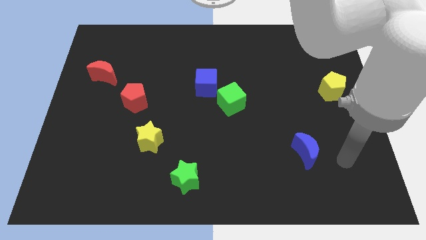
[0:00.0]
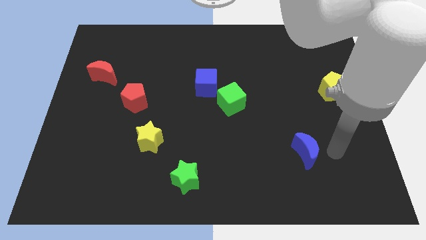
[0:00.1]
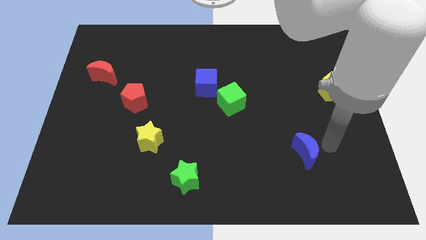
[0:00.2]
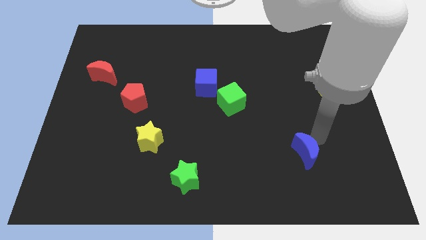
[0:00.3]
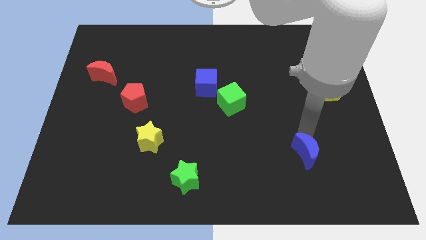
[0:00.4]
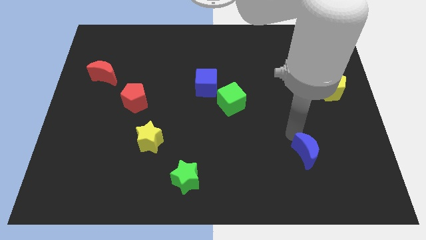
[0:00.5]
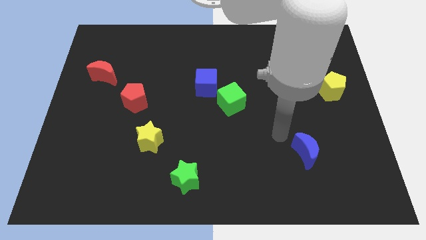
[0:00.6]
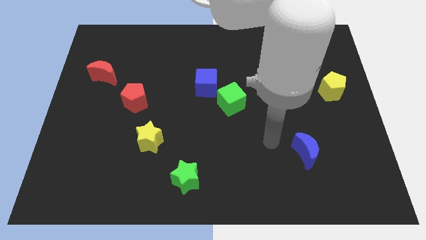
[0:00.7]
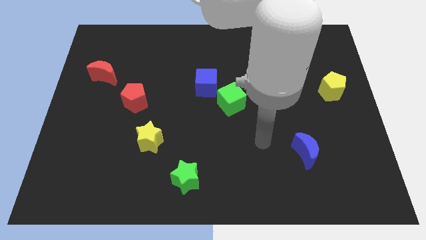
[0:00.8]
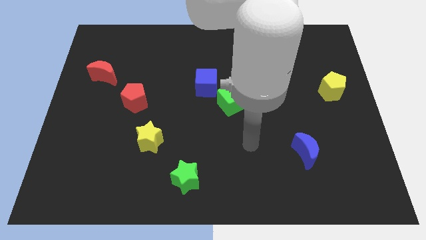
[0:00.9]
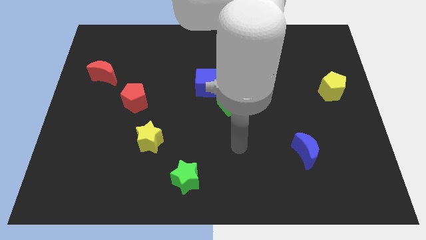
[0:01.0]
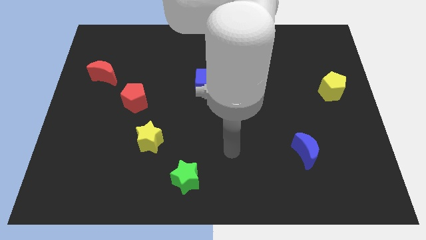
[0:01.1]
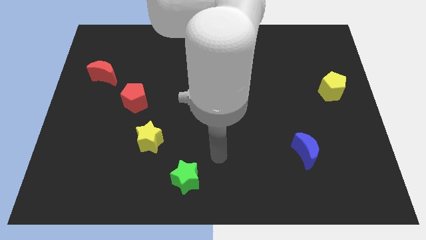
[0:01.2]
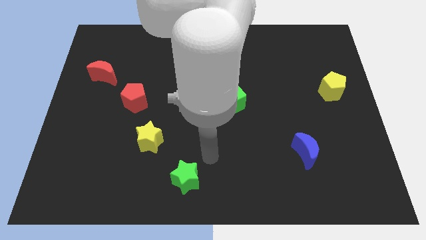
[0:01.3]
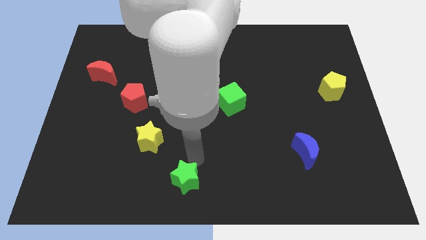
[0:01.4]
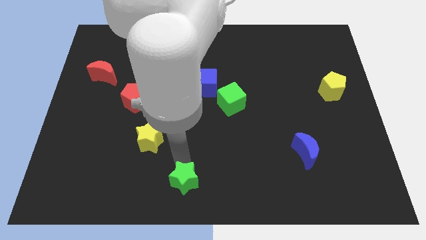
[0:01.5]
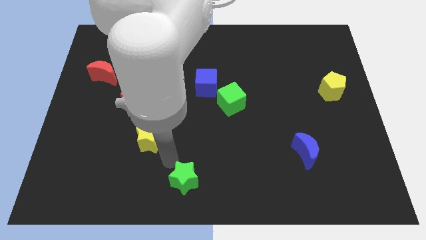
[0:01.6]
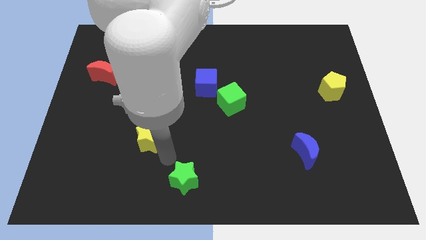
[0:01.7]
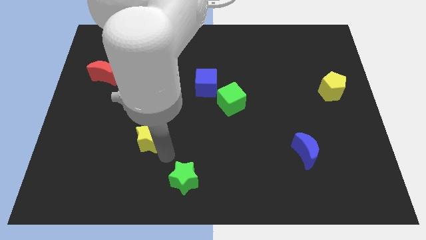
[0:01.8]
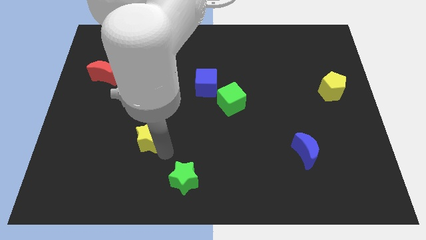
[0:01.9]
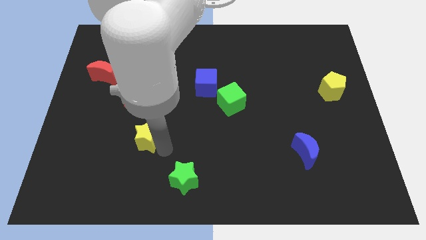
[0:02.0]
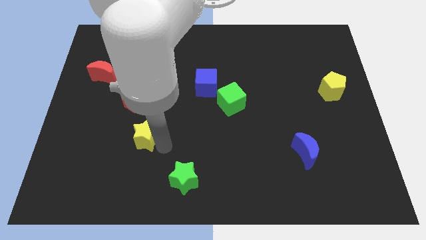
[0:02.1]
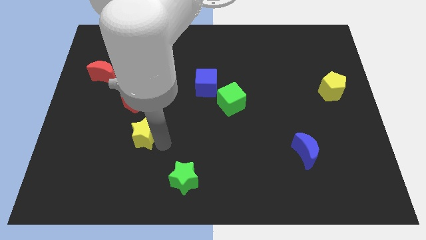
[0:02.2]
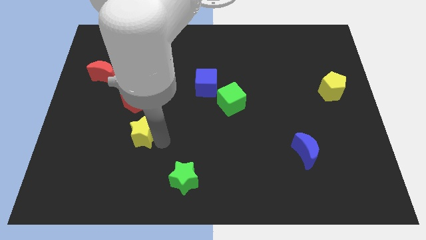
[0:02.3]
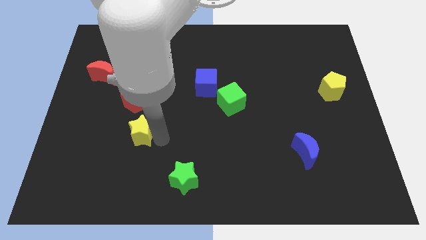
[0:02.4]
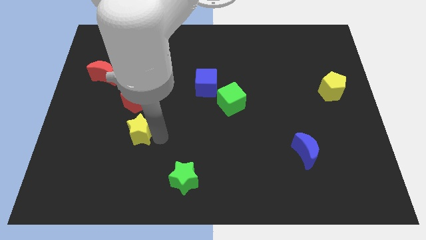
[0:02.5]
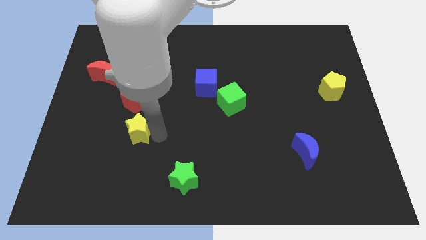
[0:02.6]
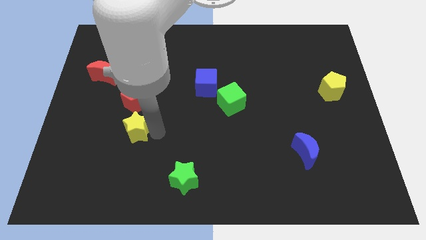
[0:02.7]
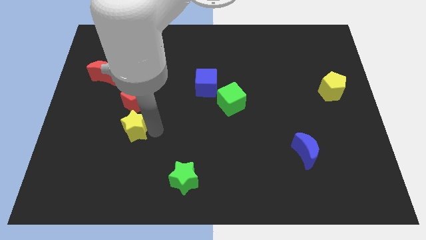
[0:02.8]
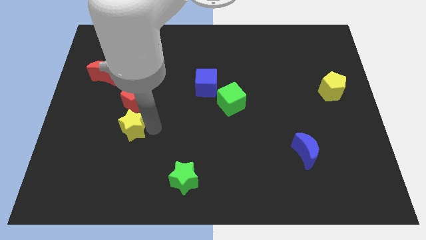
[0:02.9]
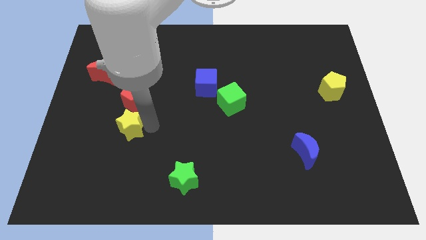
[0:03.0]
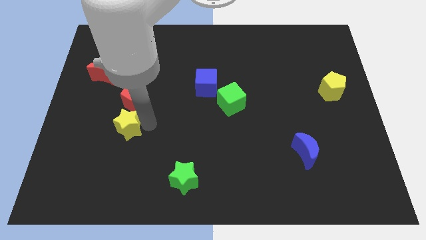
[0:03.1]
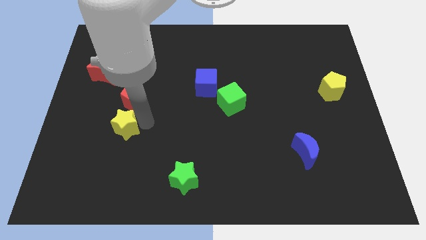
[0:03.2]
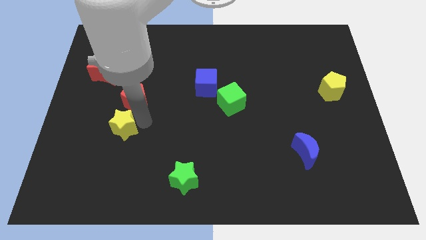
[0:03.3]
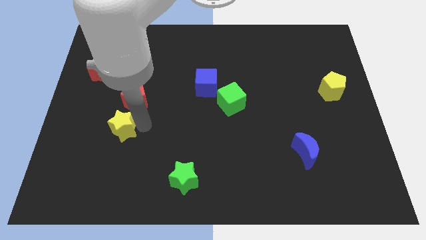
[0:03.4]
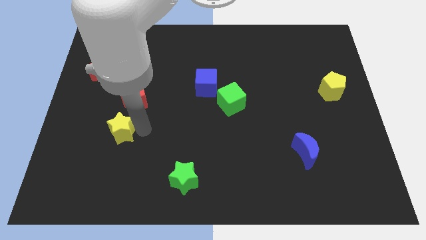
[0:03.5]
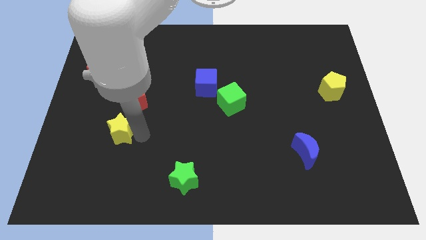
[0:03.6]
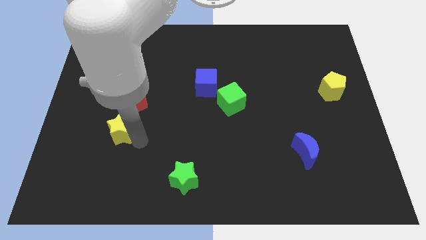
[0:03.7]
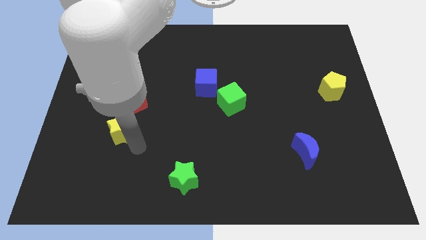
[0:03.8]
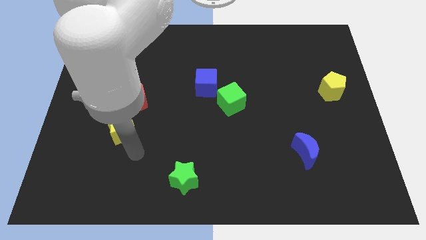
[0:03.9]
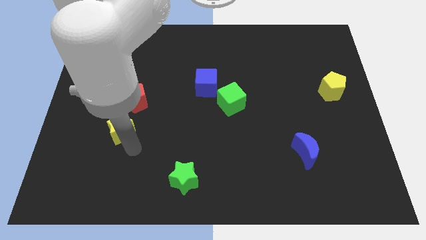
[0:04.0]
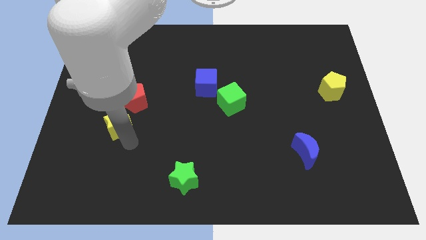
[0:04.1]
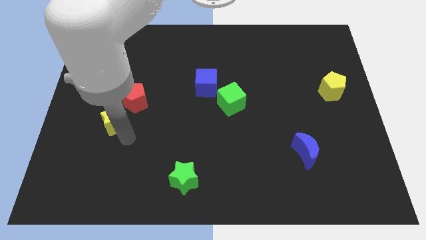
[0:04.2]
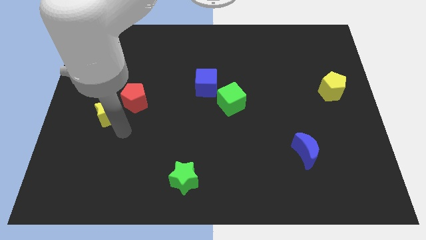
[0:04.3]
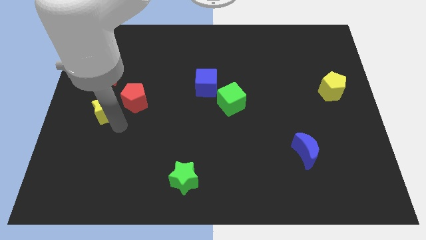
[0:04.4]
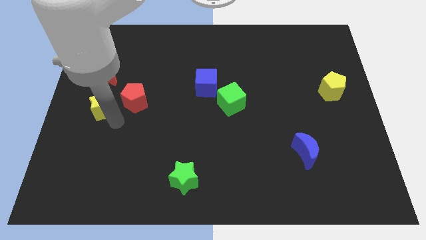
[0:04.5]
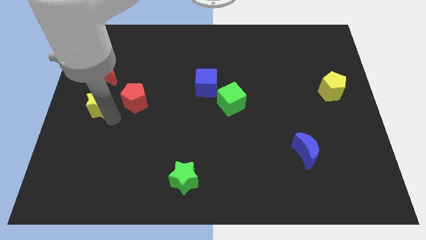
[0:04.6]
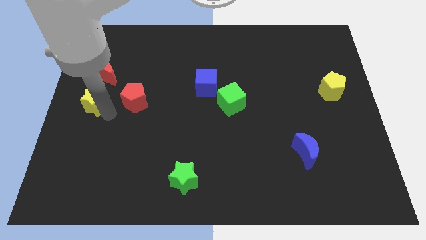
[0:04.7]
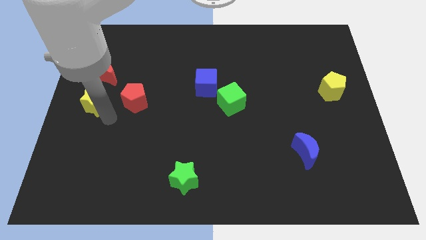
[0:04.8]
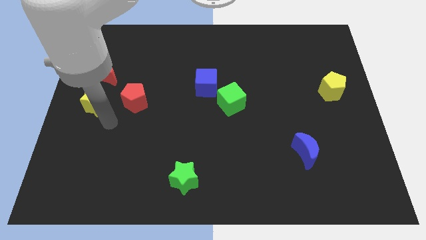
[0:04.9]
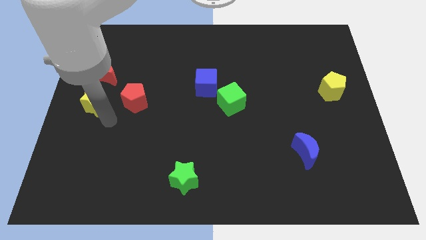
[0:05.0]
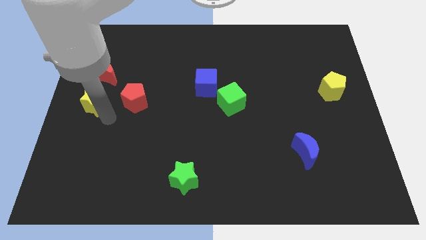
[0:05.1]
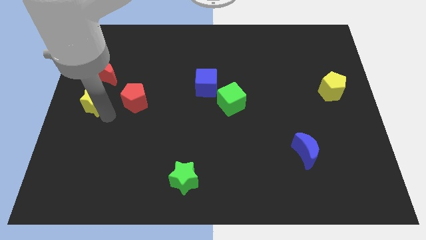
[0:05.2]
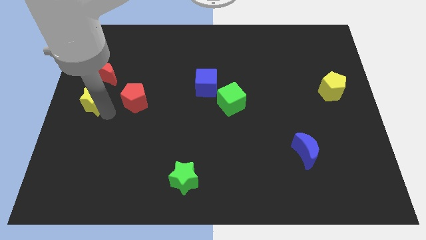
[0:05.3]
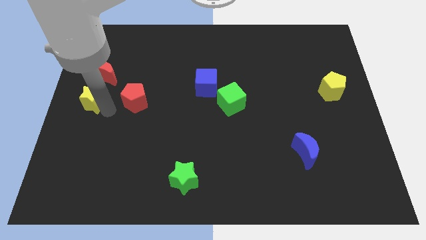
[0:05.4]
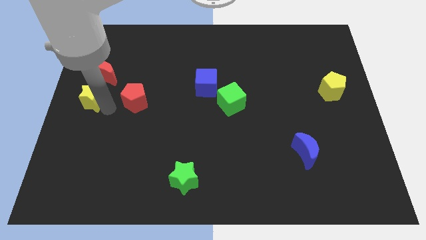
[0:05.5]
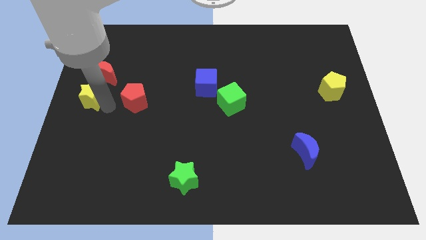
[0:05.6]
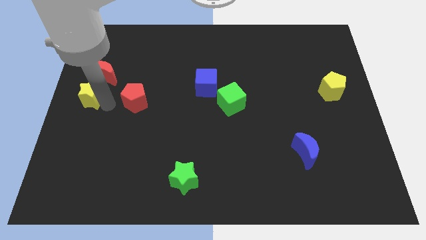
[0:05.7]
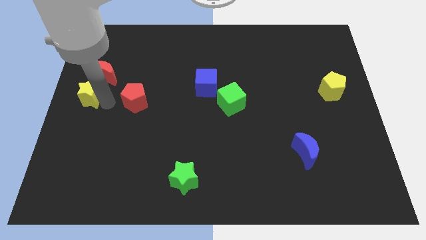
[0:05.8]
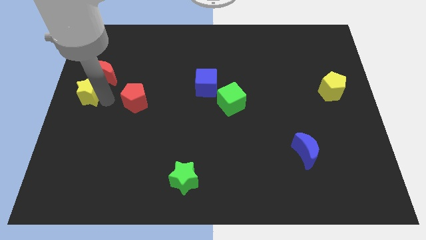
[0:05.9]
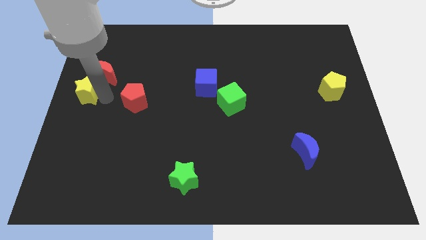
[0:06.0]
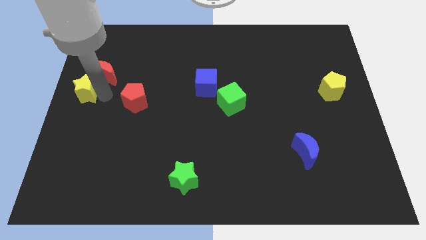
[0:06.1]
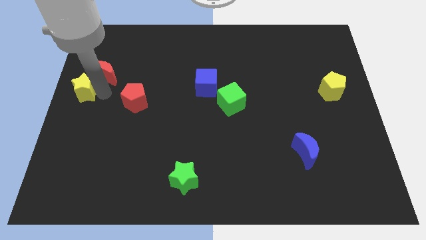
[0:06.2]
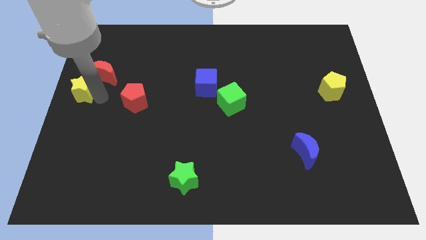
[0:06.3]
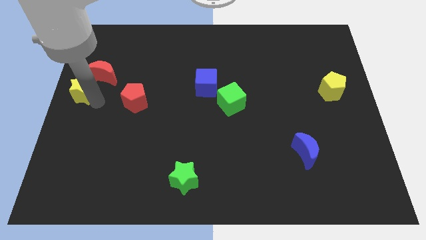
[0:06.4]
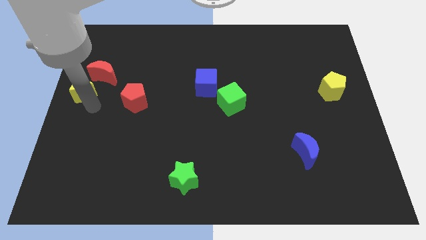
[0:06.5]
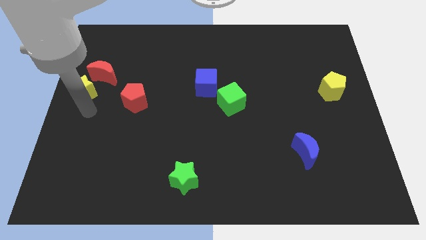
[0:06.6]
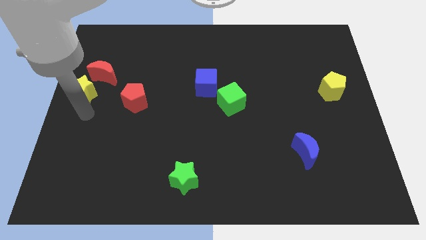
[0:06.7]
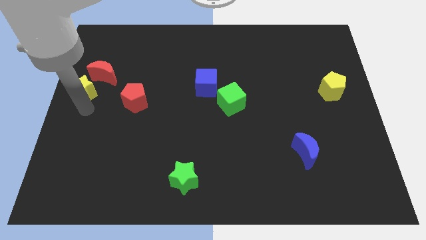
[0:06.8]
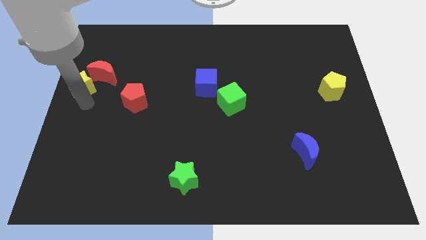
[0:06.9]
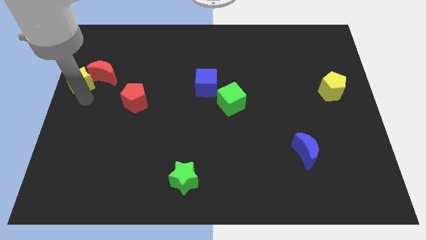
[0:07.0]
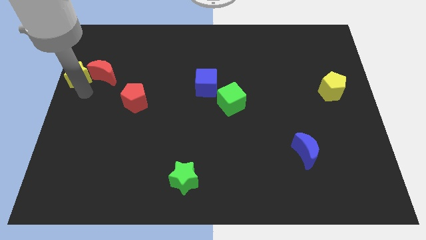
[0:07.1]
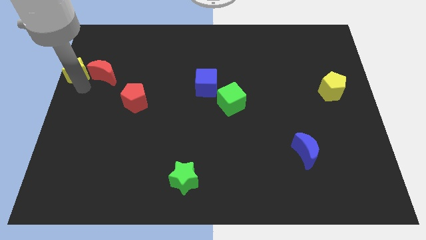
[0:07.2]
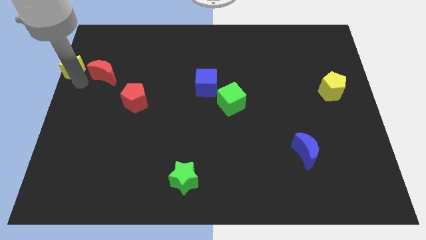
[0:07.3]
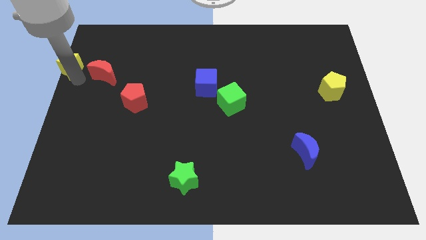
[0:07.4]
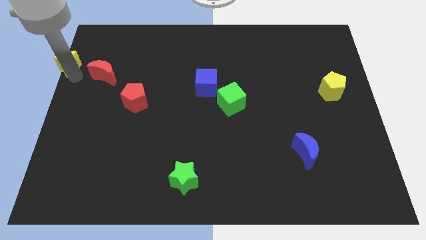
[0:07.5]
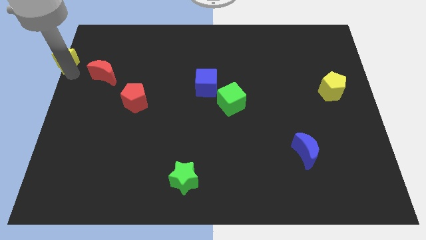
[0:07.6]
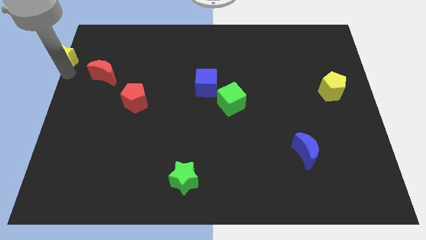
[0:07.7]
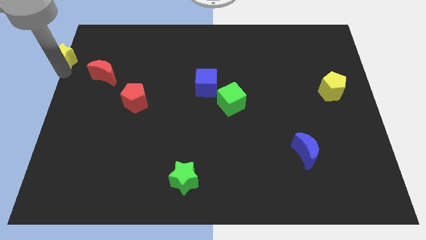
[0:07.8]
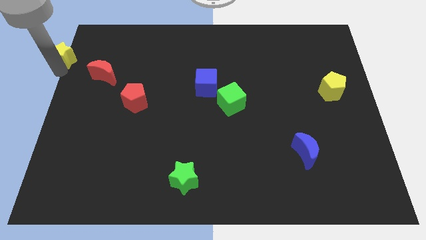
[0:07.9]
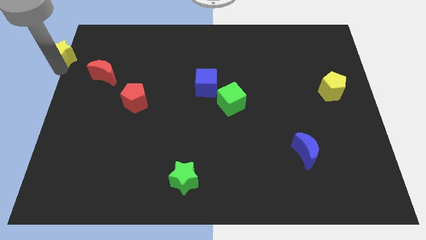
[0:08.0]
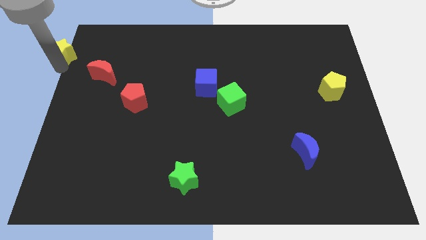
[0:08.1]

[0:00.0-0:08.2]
slide the yellow star to the top left corner
